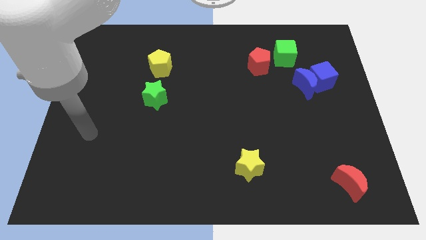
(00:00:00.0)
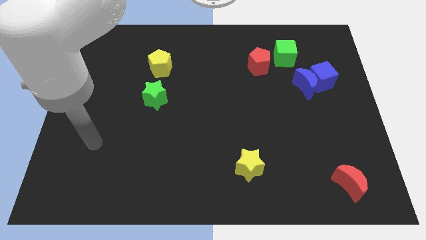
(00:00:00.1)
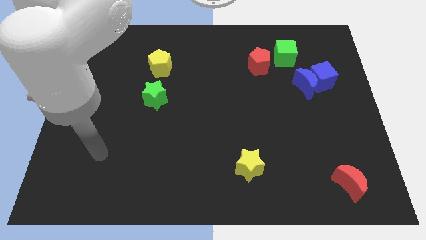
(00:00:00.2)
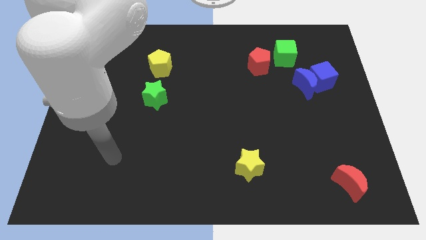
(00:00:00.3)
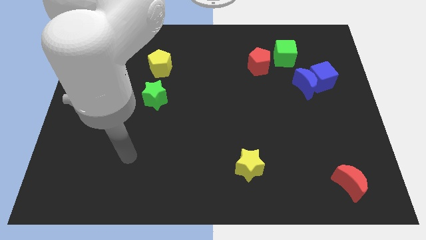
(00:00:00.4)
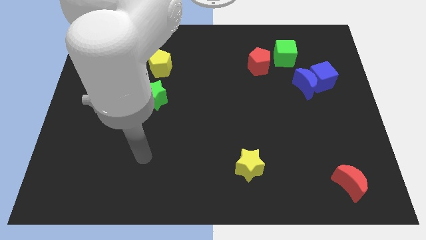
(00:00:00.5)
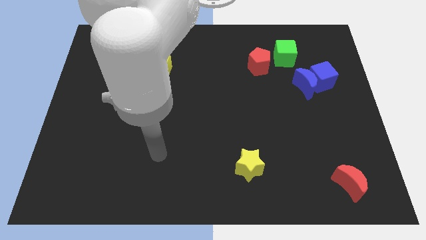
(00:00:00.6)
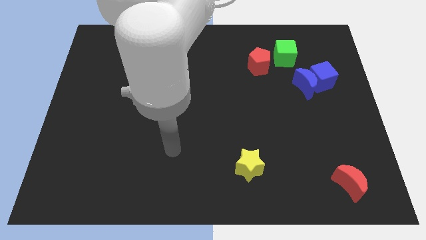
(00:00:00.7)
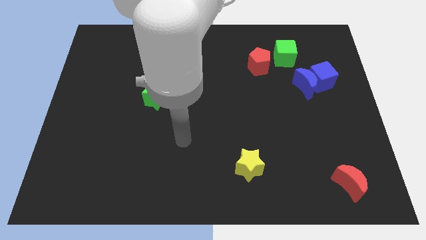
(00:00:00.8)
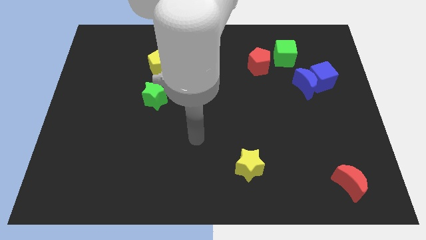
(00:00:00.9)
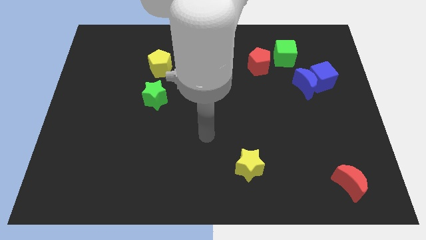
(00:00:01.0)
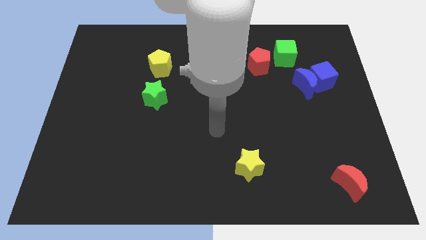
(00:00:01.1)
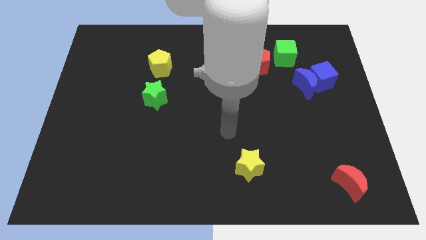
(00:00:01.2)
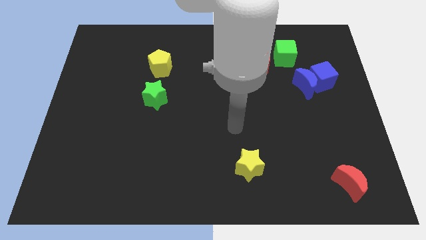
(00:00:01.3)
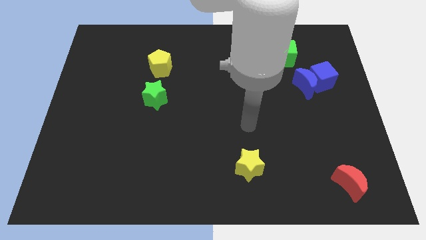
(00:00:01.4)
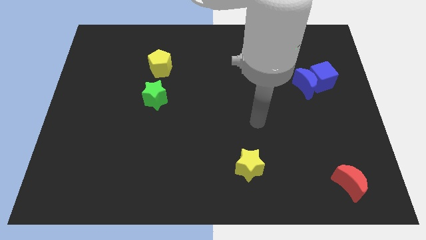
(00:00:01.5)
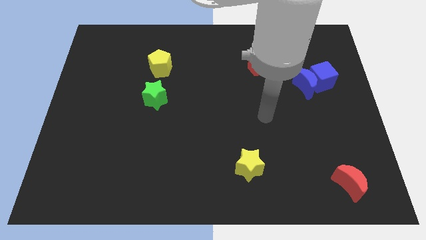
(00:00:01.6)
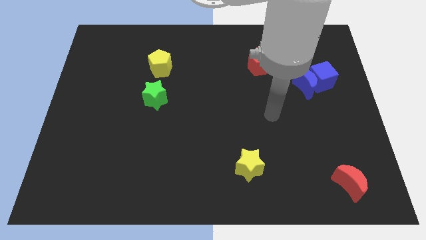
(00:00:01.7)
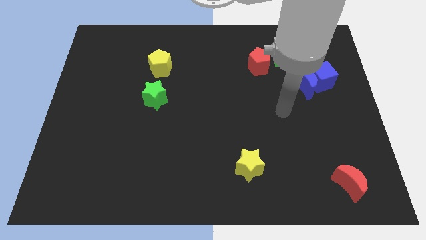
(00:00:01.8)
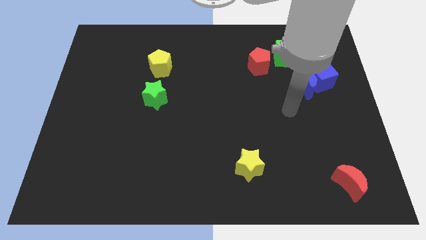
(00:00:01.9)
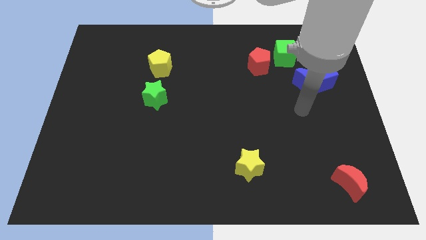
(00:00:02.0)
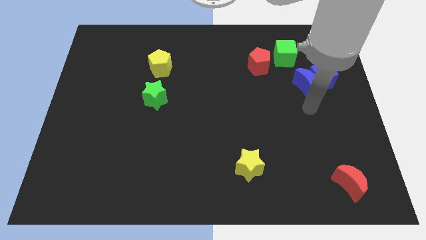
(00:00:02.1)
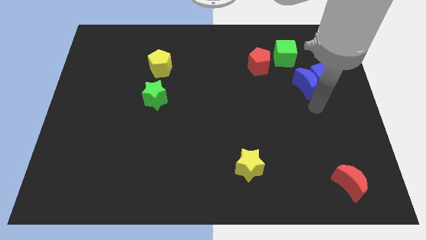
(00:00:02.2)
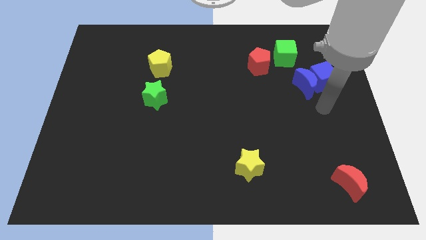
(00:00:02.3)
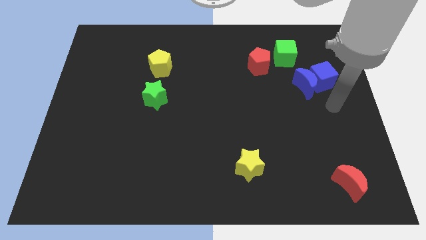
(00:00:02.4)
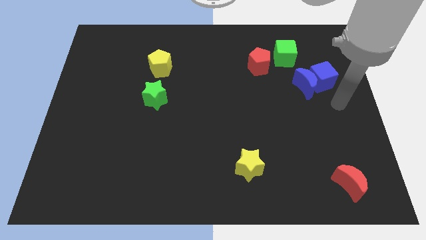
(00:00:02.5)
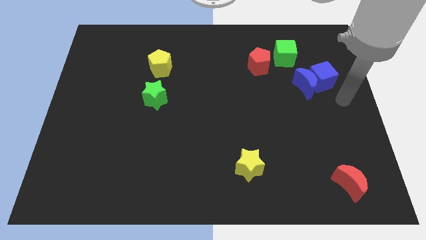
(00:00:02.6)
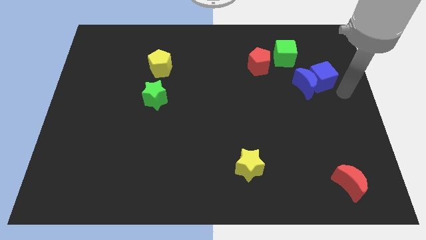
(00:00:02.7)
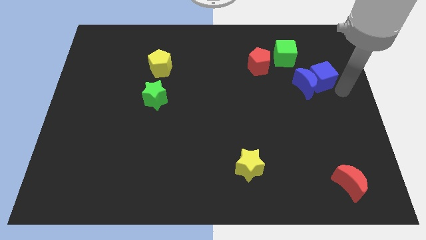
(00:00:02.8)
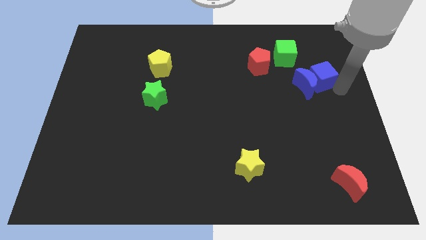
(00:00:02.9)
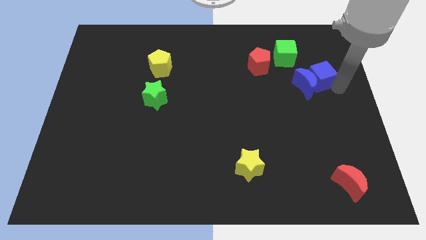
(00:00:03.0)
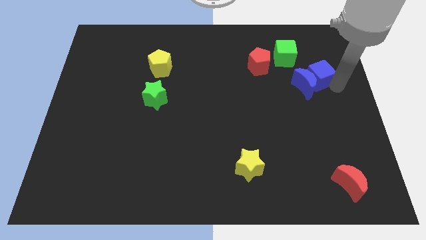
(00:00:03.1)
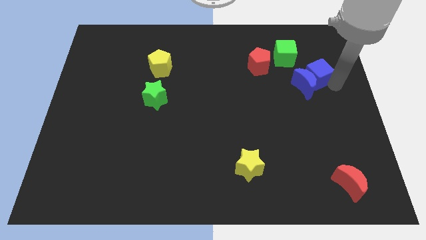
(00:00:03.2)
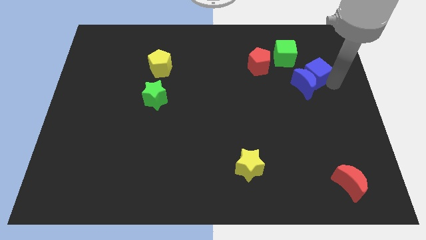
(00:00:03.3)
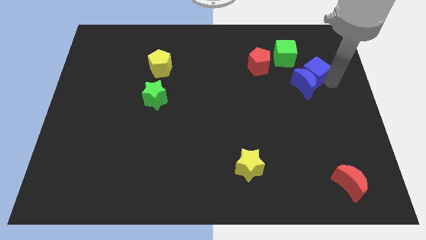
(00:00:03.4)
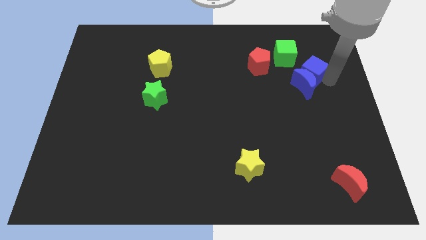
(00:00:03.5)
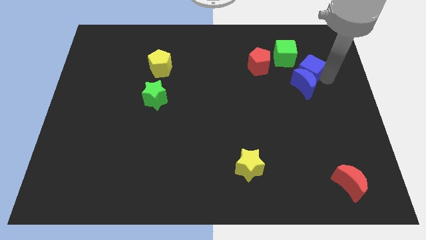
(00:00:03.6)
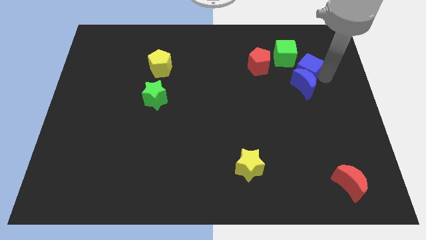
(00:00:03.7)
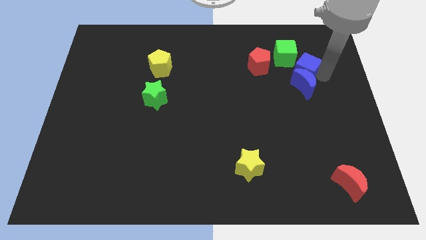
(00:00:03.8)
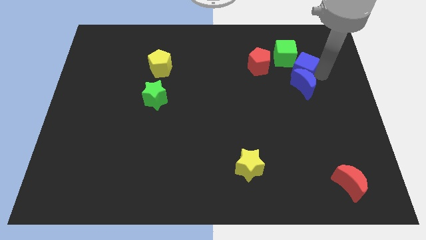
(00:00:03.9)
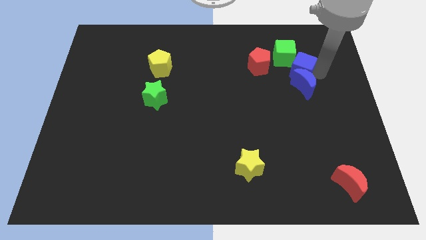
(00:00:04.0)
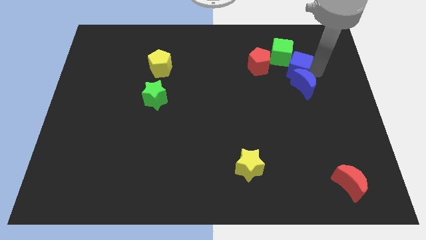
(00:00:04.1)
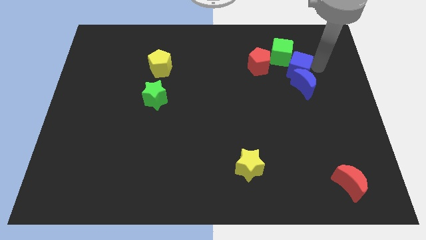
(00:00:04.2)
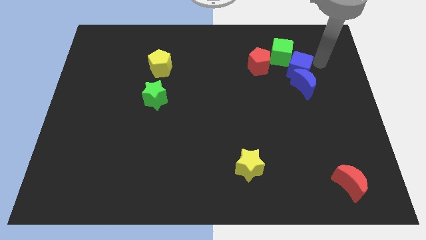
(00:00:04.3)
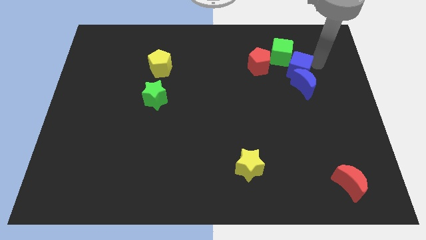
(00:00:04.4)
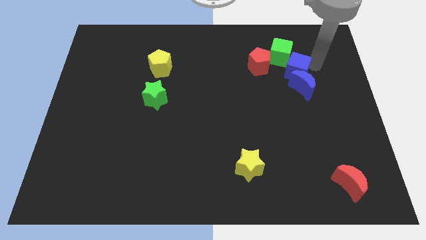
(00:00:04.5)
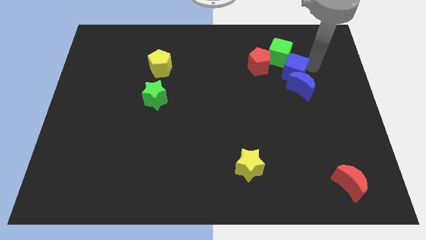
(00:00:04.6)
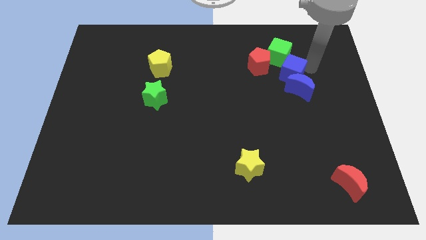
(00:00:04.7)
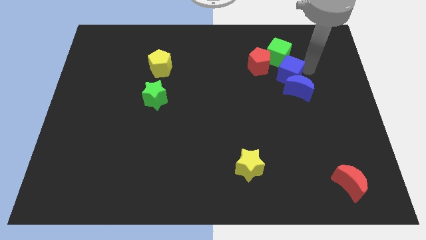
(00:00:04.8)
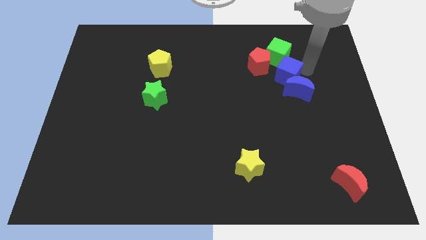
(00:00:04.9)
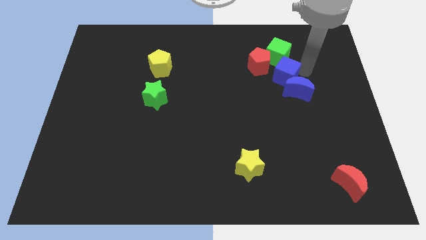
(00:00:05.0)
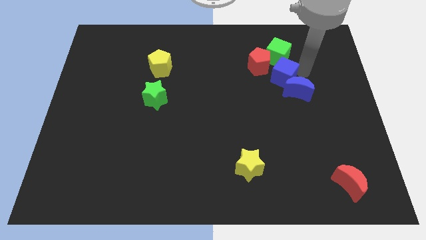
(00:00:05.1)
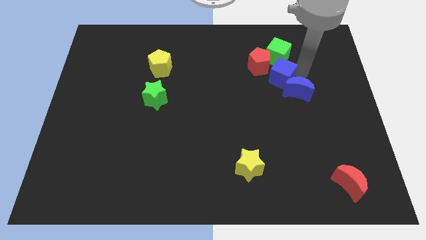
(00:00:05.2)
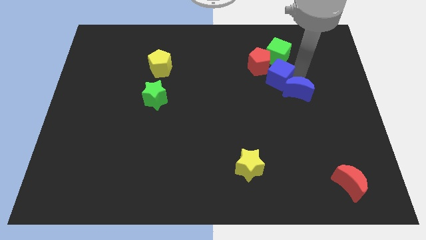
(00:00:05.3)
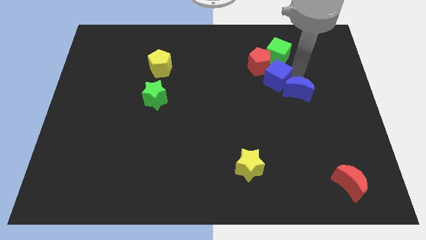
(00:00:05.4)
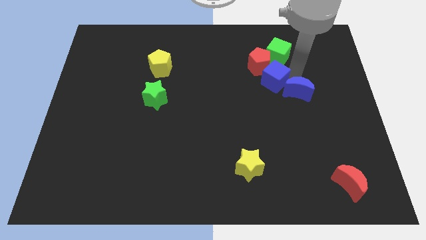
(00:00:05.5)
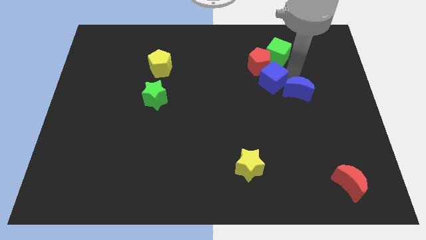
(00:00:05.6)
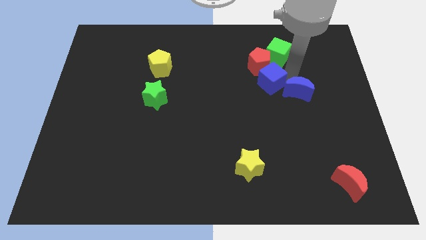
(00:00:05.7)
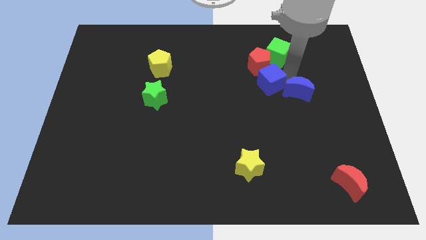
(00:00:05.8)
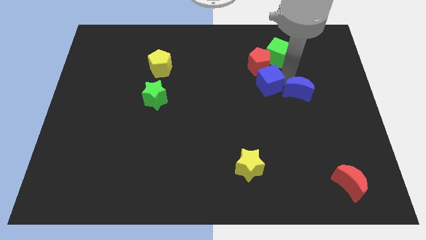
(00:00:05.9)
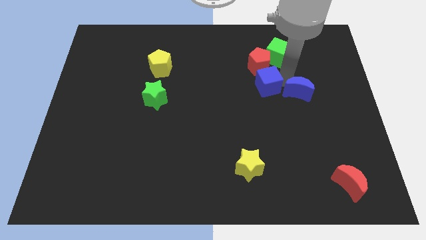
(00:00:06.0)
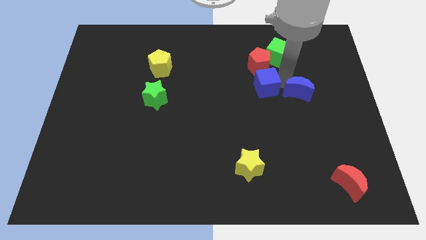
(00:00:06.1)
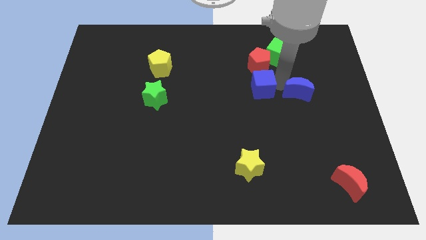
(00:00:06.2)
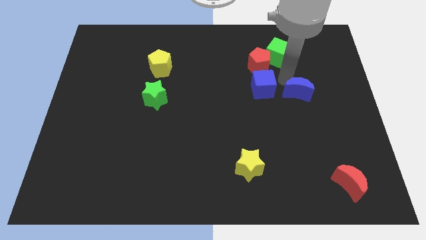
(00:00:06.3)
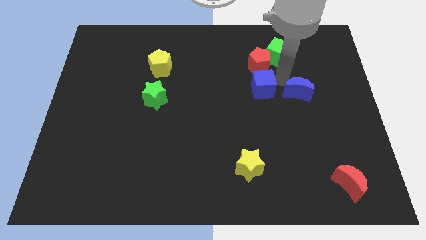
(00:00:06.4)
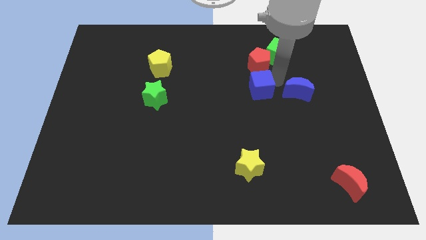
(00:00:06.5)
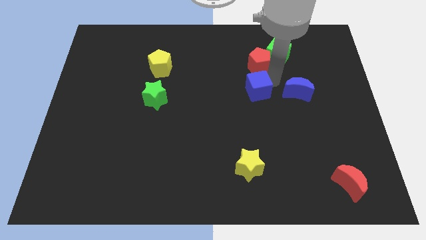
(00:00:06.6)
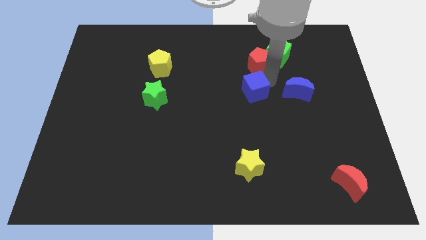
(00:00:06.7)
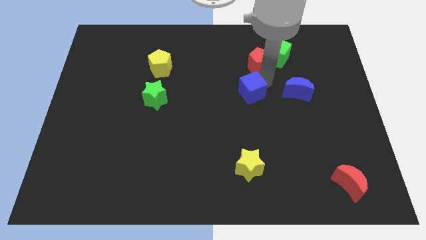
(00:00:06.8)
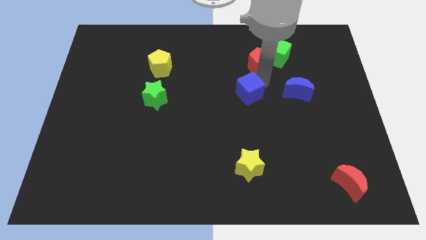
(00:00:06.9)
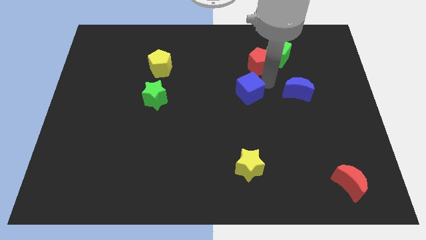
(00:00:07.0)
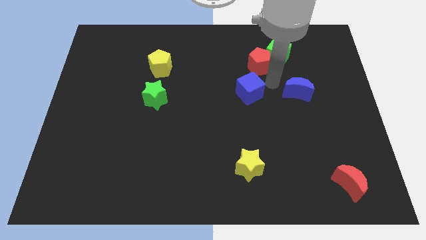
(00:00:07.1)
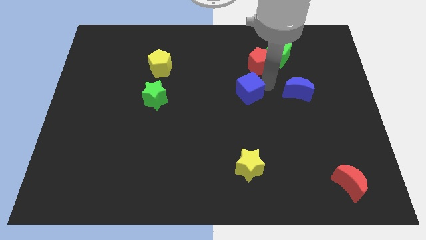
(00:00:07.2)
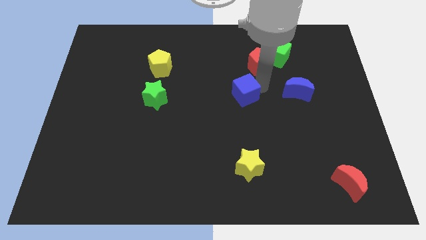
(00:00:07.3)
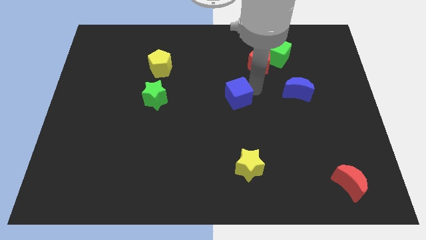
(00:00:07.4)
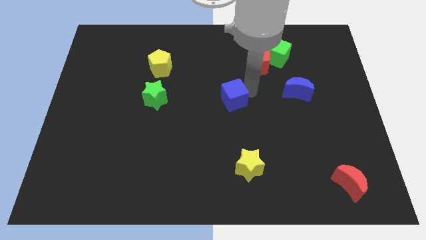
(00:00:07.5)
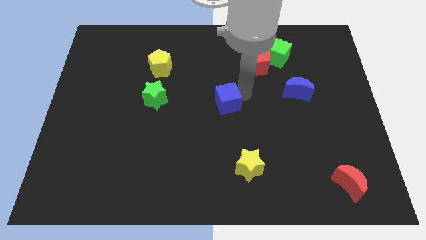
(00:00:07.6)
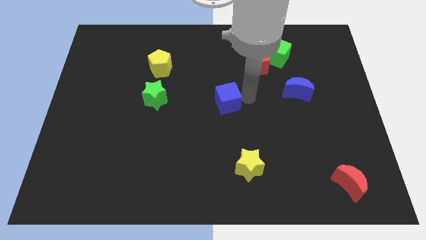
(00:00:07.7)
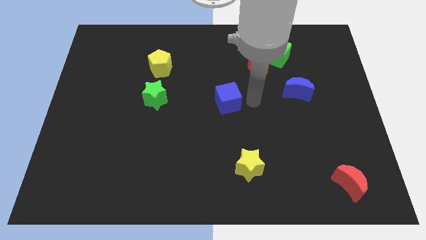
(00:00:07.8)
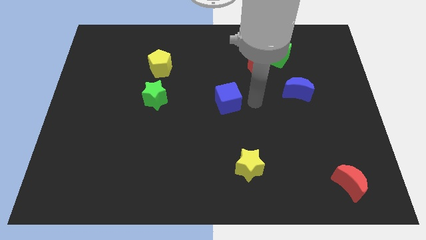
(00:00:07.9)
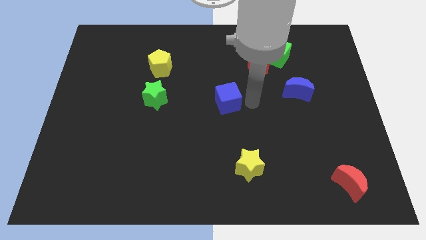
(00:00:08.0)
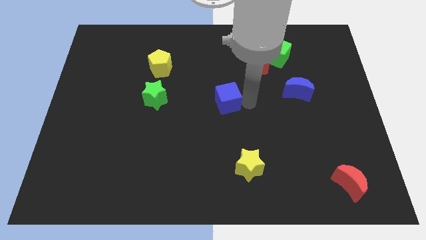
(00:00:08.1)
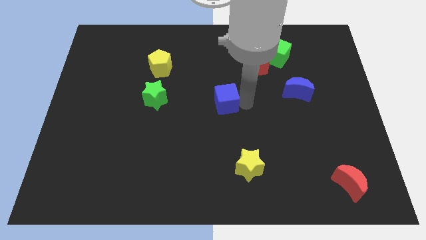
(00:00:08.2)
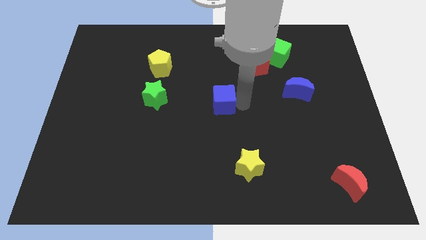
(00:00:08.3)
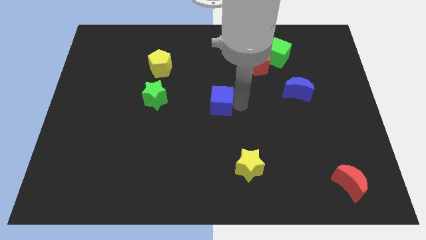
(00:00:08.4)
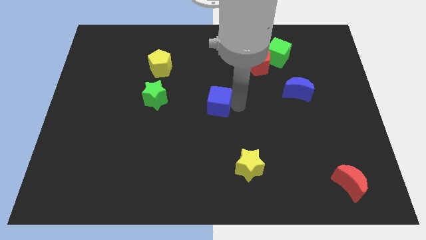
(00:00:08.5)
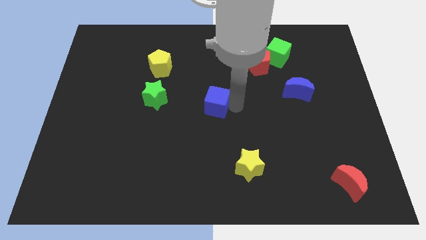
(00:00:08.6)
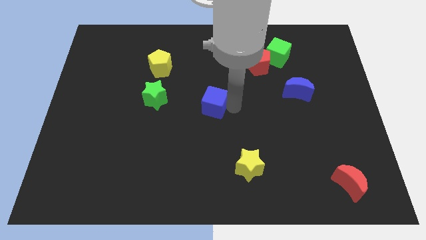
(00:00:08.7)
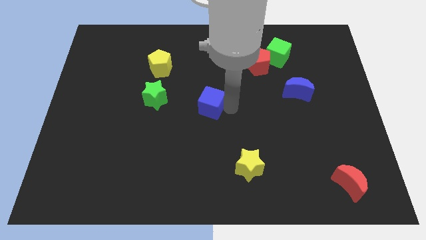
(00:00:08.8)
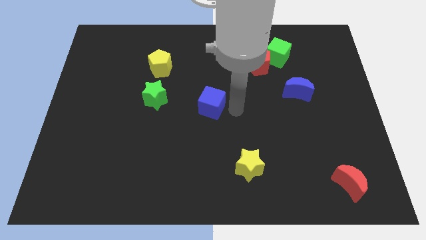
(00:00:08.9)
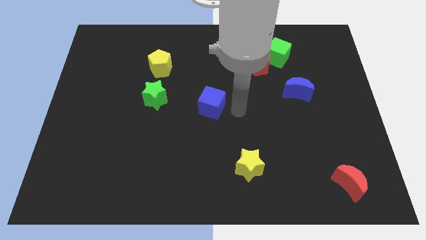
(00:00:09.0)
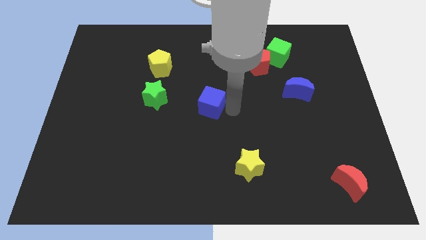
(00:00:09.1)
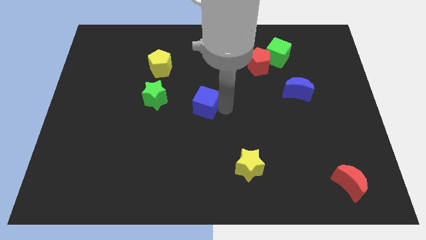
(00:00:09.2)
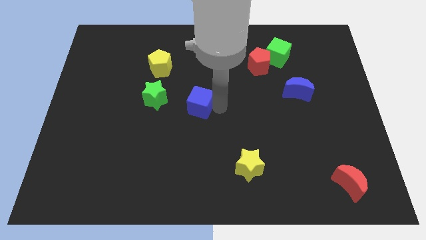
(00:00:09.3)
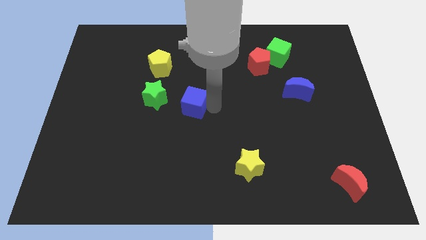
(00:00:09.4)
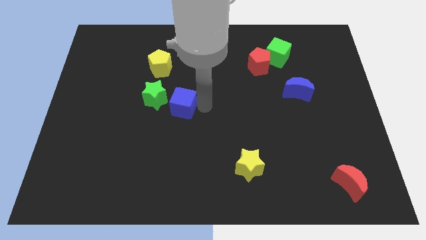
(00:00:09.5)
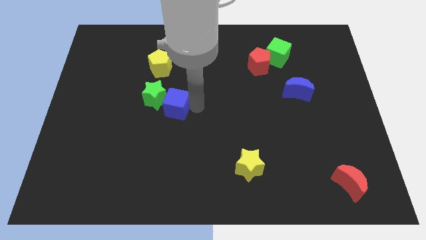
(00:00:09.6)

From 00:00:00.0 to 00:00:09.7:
put the blue cube towards the green star
